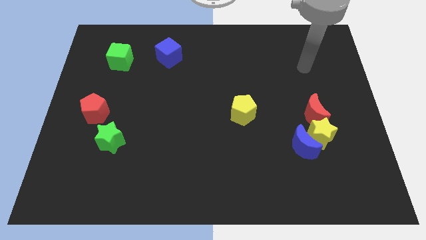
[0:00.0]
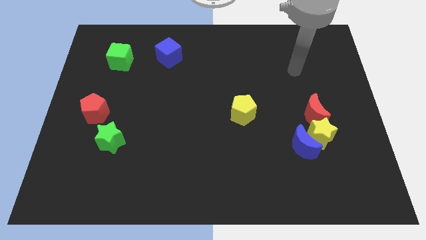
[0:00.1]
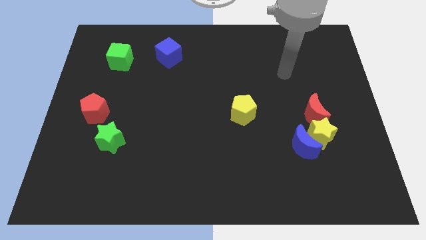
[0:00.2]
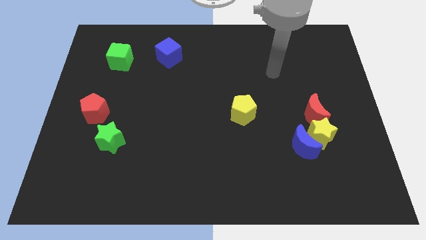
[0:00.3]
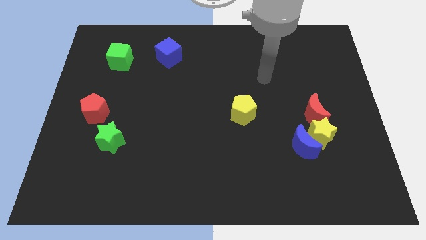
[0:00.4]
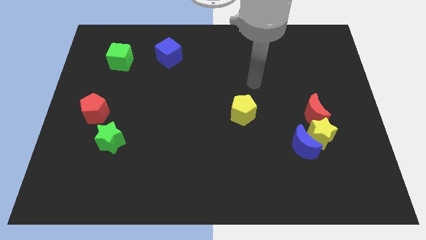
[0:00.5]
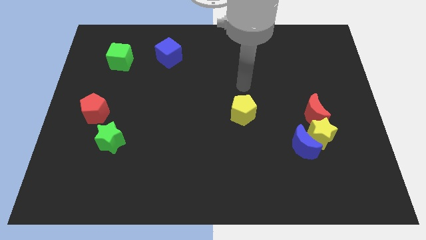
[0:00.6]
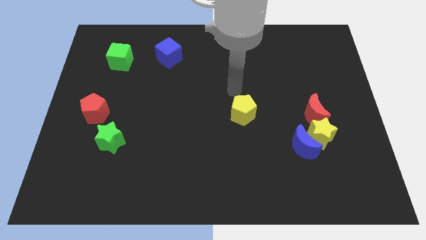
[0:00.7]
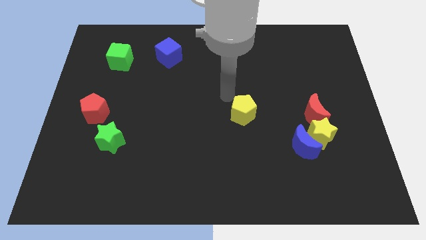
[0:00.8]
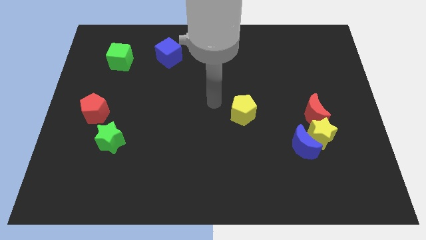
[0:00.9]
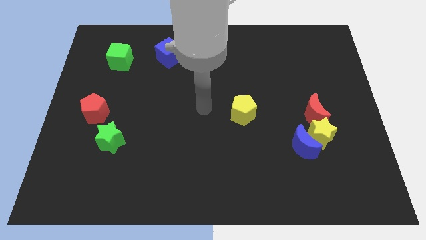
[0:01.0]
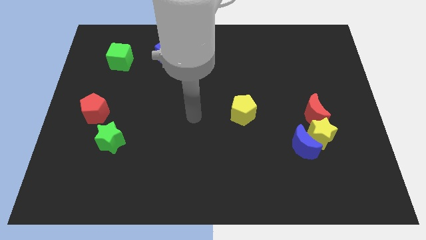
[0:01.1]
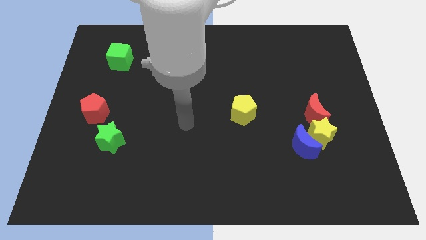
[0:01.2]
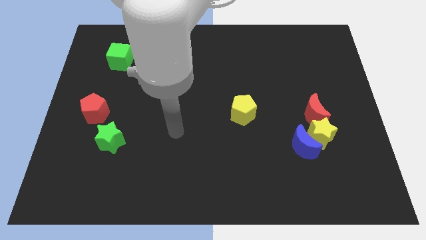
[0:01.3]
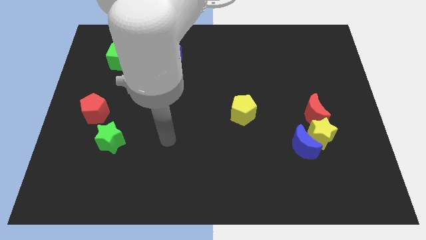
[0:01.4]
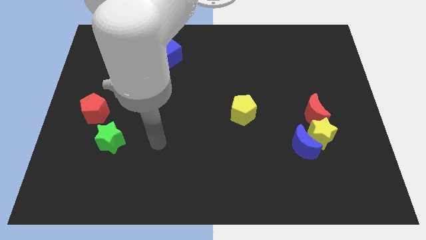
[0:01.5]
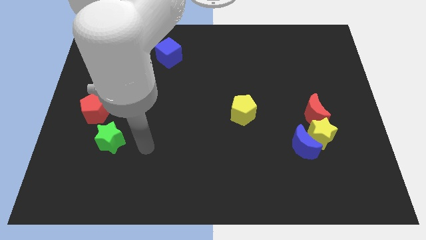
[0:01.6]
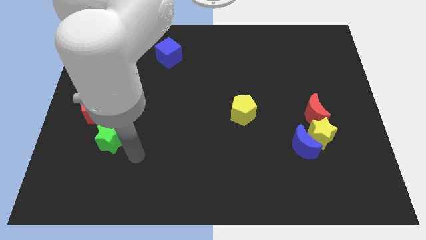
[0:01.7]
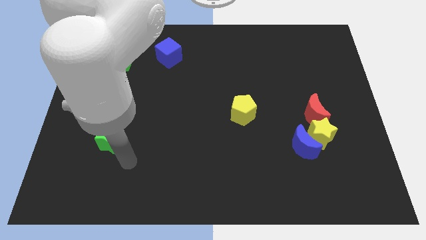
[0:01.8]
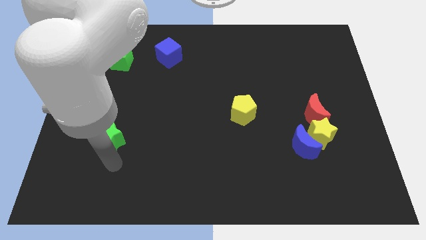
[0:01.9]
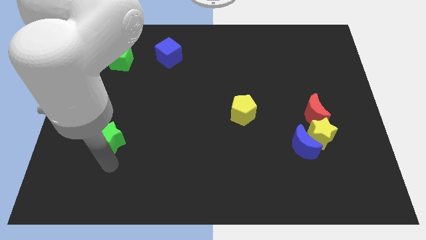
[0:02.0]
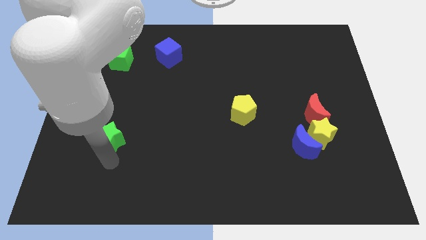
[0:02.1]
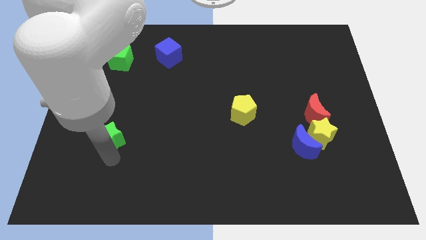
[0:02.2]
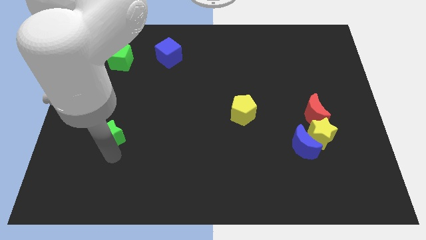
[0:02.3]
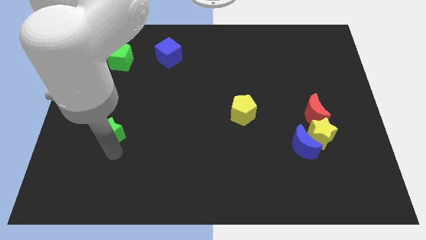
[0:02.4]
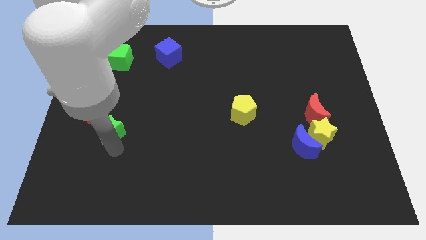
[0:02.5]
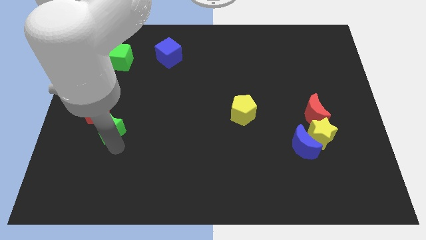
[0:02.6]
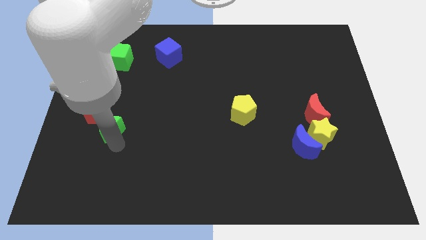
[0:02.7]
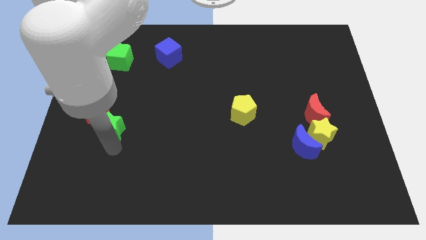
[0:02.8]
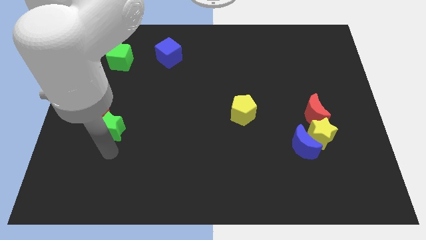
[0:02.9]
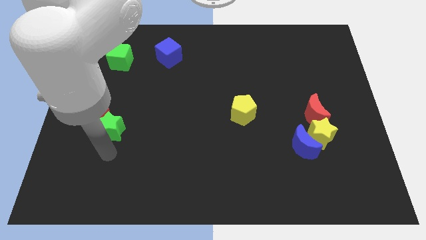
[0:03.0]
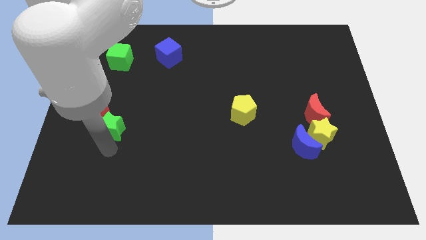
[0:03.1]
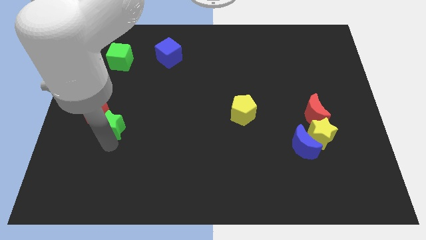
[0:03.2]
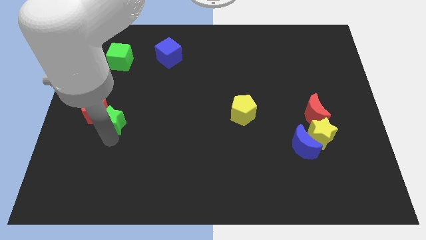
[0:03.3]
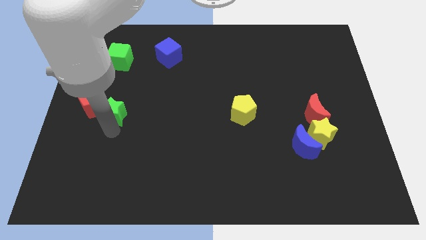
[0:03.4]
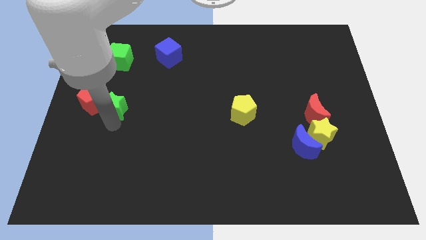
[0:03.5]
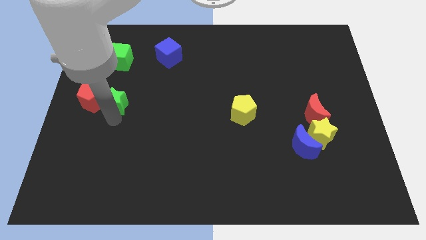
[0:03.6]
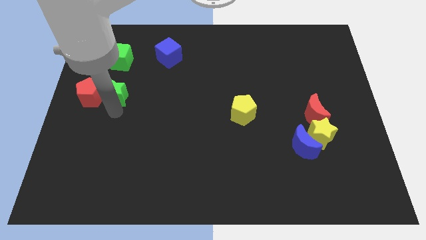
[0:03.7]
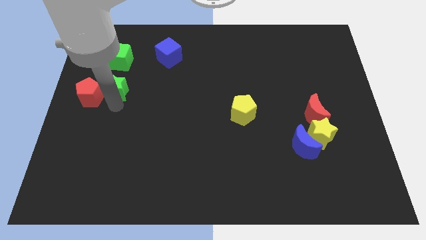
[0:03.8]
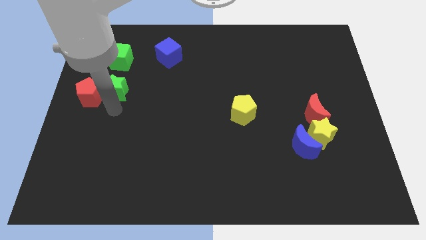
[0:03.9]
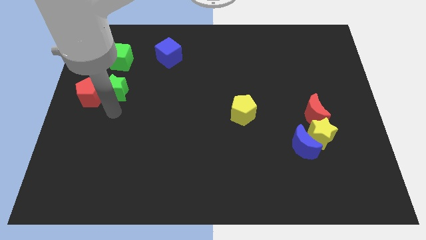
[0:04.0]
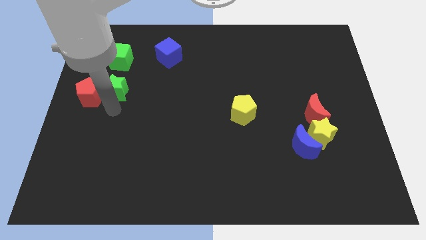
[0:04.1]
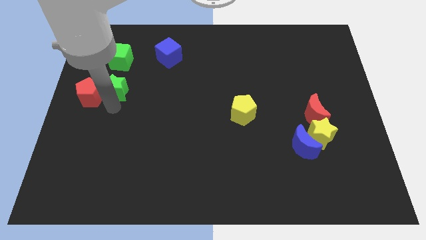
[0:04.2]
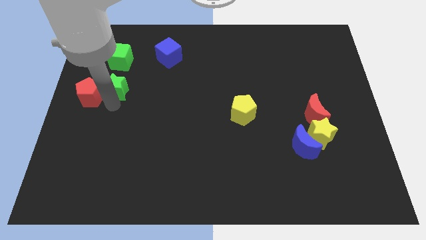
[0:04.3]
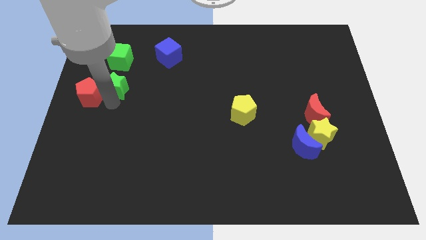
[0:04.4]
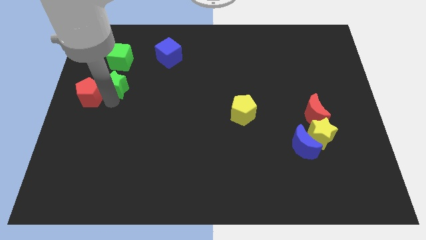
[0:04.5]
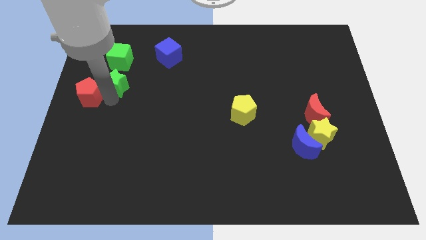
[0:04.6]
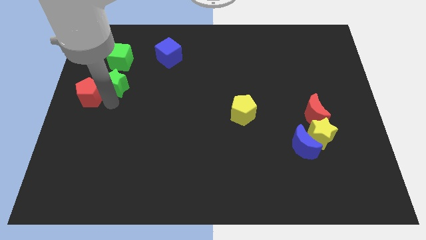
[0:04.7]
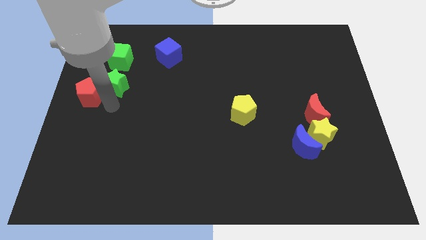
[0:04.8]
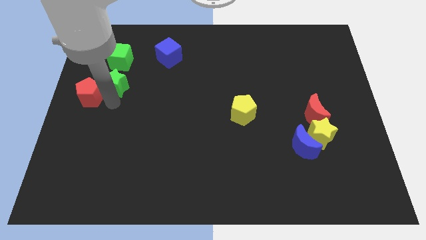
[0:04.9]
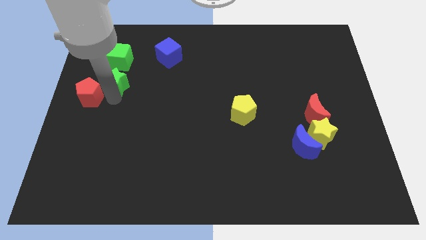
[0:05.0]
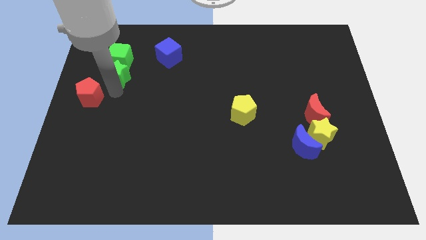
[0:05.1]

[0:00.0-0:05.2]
push the green star close to the green cube

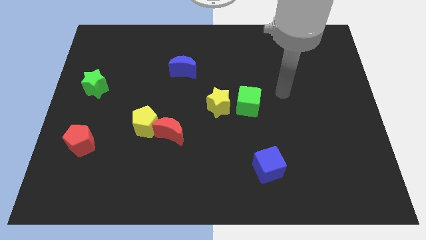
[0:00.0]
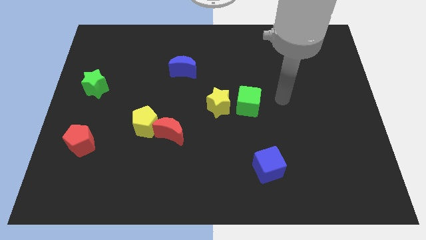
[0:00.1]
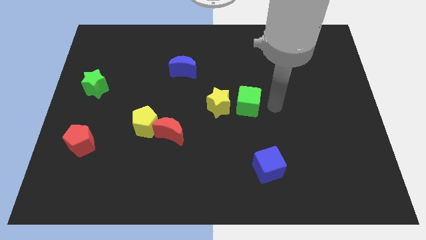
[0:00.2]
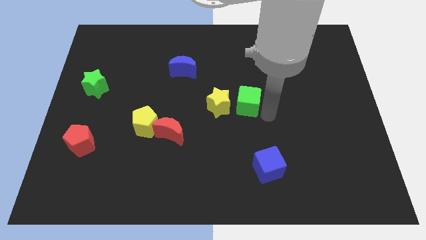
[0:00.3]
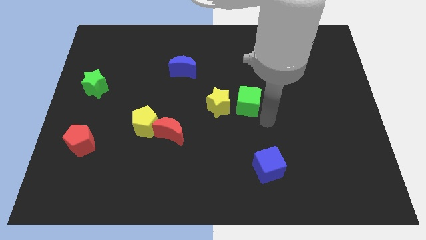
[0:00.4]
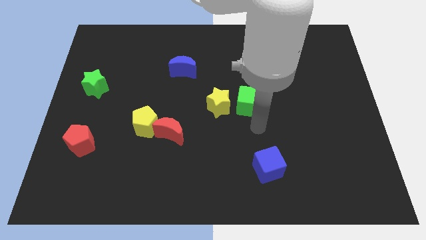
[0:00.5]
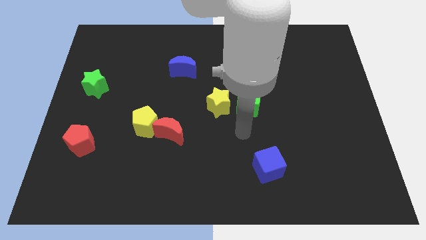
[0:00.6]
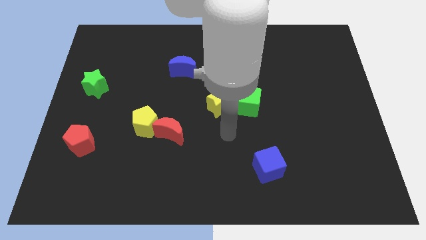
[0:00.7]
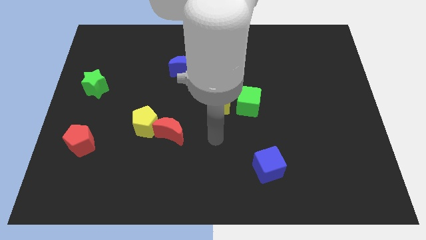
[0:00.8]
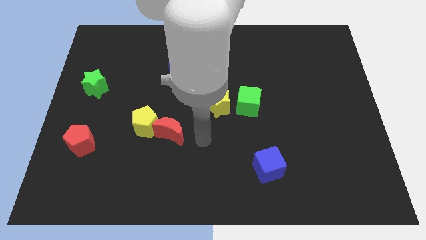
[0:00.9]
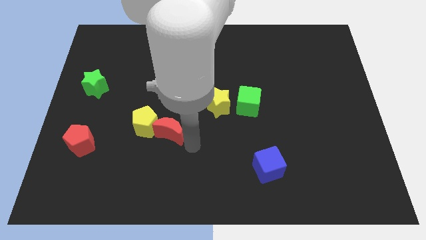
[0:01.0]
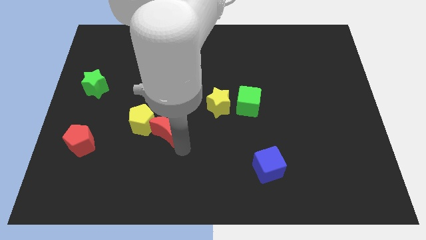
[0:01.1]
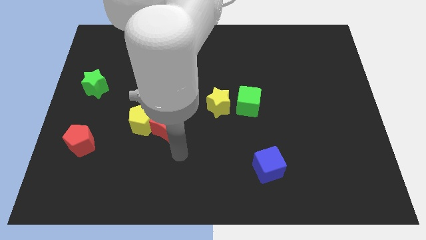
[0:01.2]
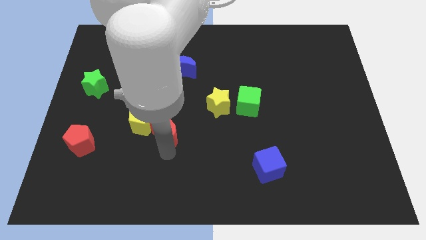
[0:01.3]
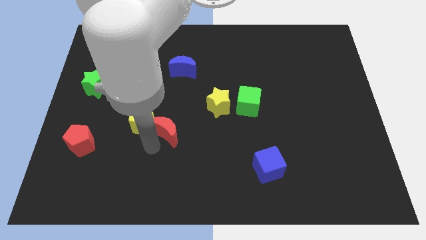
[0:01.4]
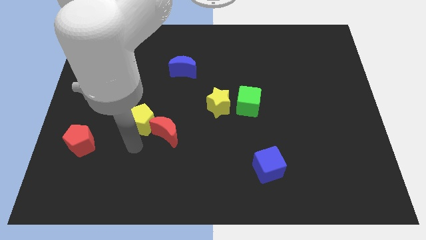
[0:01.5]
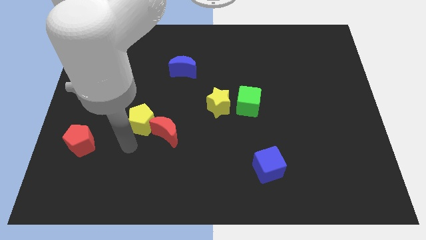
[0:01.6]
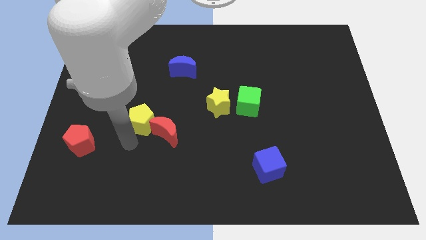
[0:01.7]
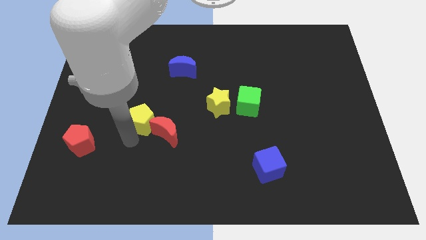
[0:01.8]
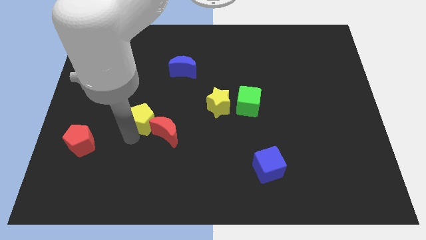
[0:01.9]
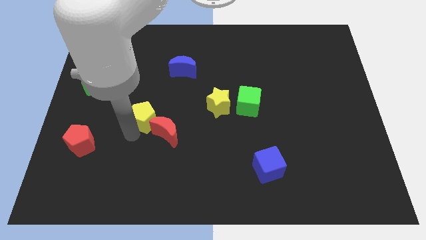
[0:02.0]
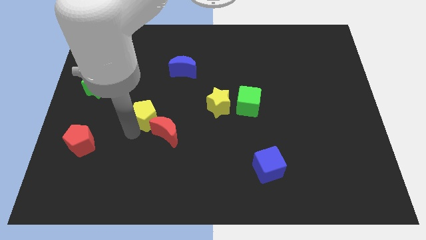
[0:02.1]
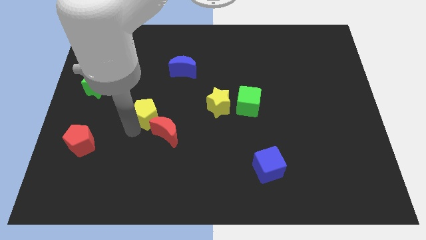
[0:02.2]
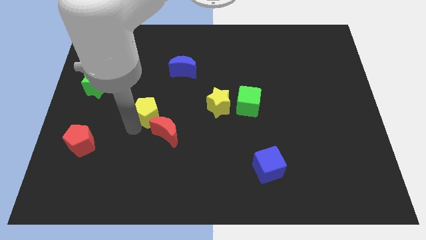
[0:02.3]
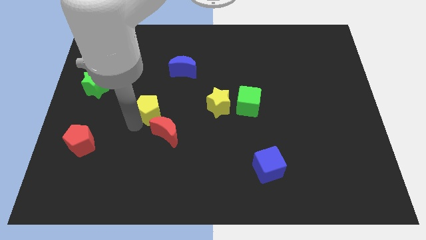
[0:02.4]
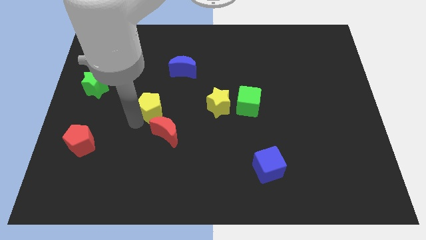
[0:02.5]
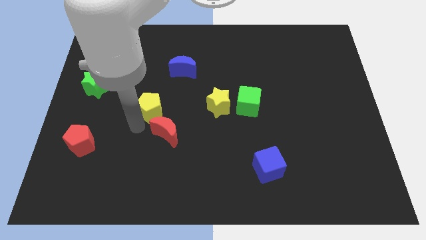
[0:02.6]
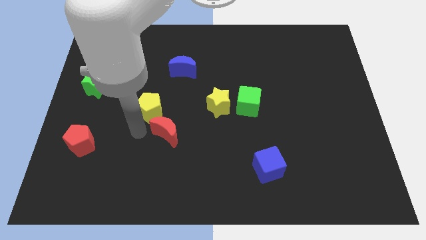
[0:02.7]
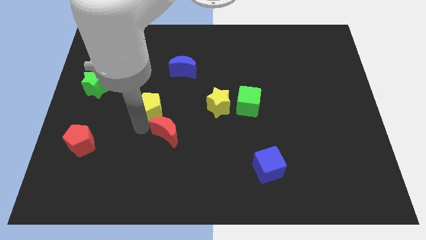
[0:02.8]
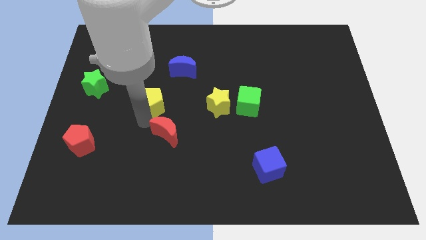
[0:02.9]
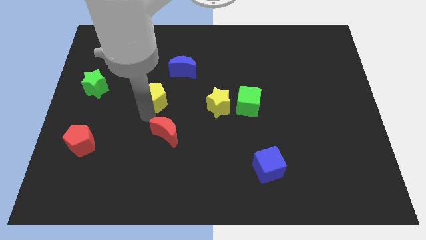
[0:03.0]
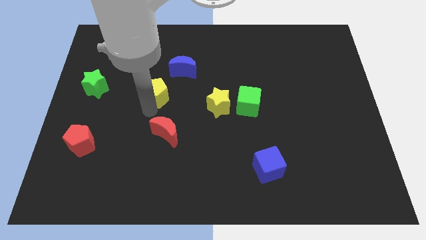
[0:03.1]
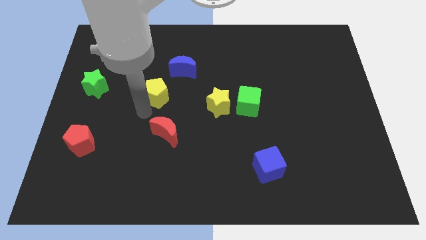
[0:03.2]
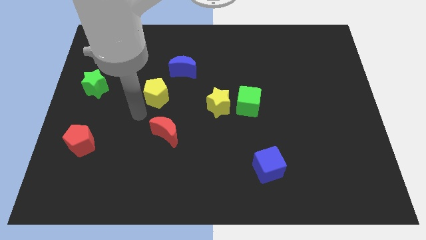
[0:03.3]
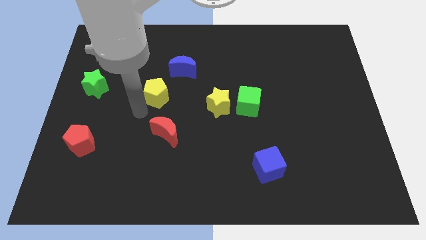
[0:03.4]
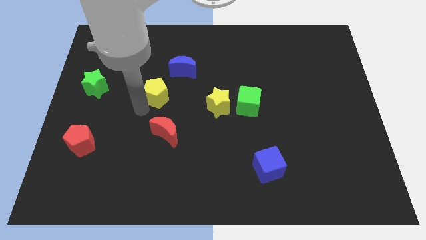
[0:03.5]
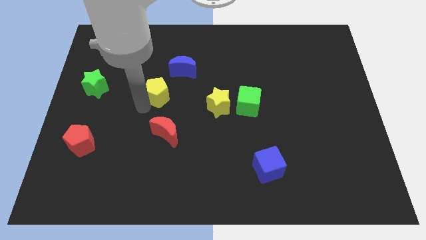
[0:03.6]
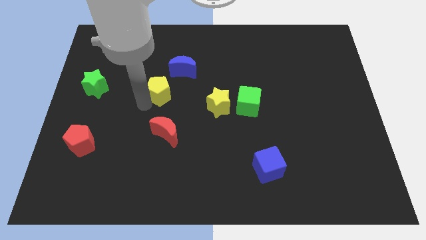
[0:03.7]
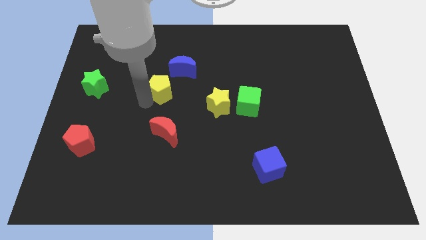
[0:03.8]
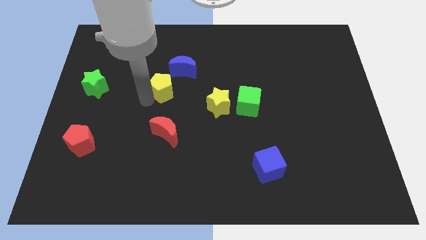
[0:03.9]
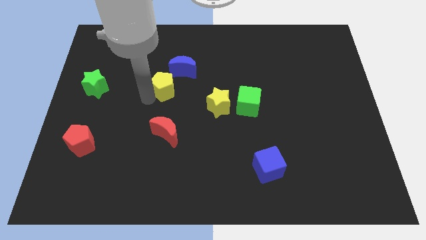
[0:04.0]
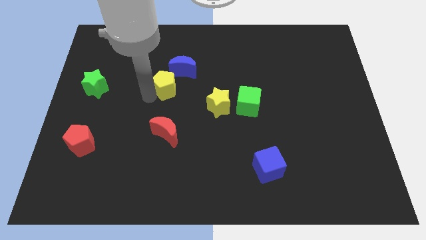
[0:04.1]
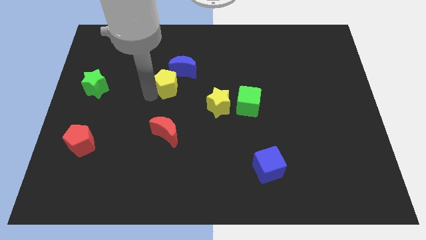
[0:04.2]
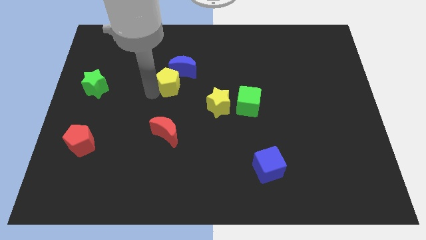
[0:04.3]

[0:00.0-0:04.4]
put the yellow pentagon towards the blue moon
